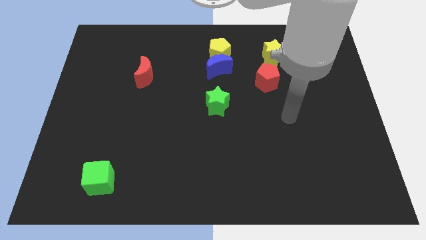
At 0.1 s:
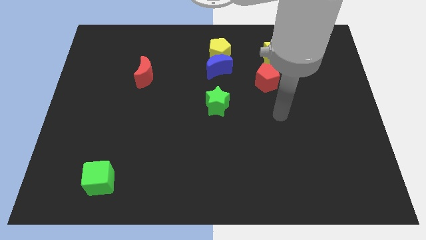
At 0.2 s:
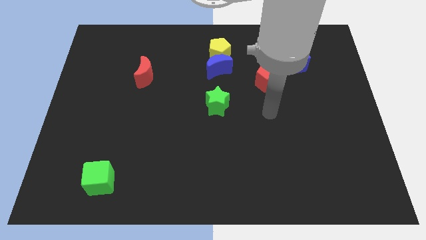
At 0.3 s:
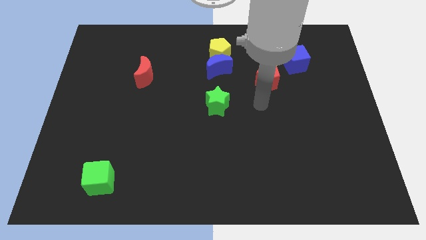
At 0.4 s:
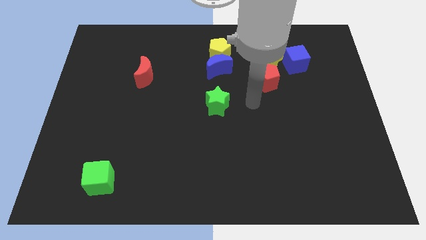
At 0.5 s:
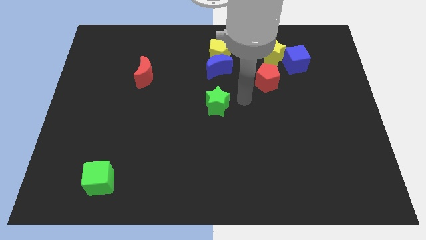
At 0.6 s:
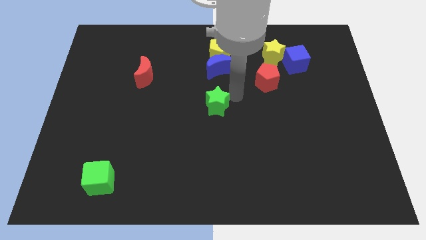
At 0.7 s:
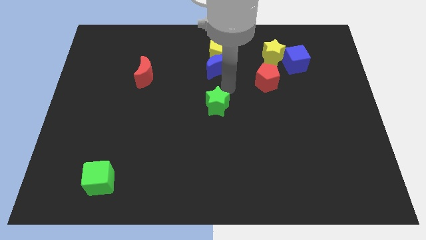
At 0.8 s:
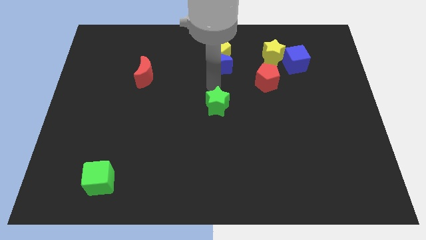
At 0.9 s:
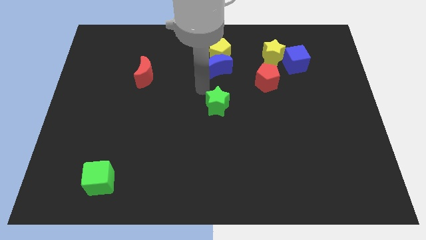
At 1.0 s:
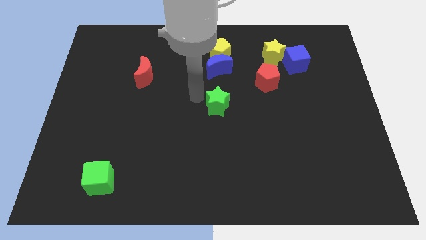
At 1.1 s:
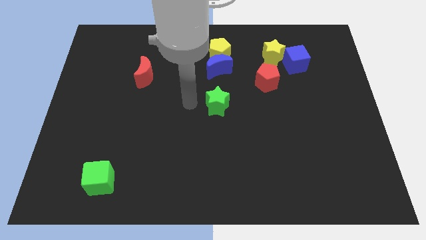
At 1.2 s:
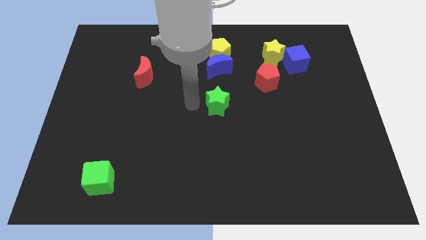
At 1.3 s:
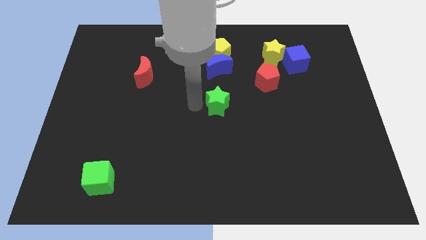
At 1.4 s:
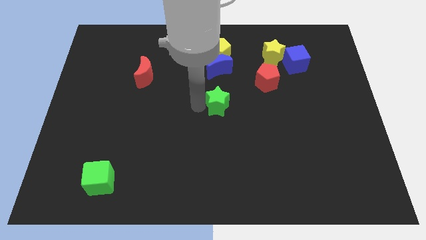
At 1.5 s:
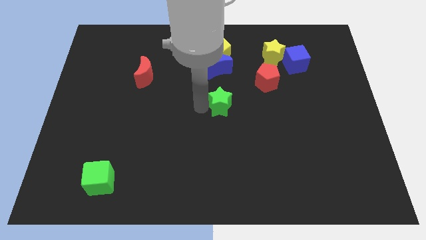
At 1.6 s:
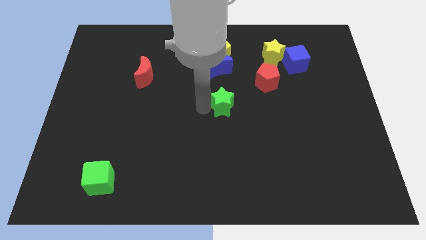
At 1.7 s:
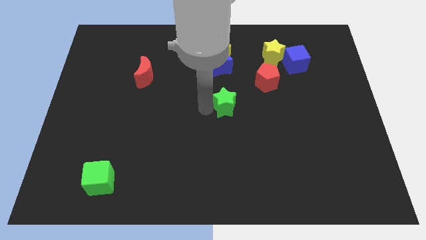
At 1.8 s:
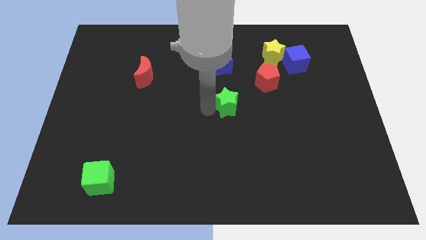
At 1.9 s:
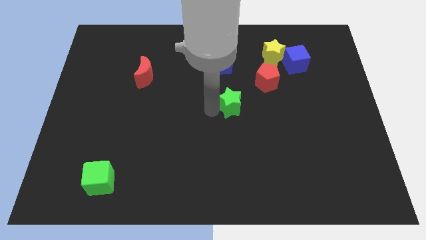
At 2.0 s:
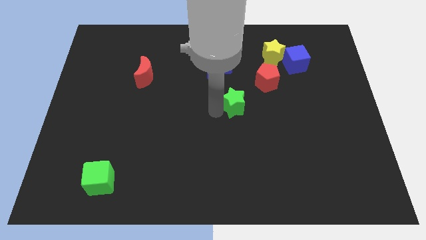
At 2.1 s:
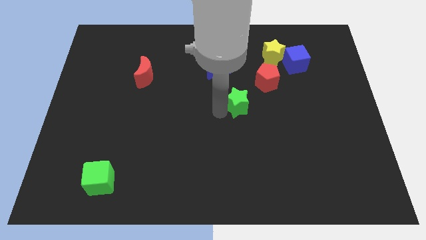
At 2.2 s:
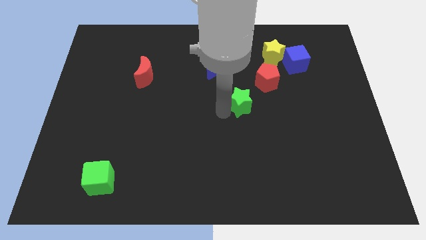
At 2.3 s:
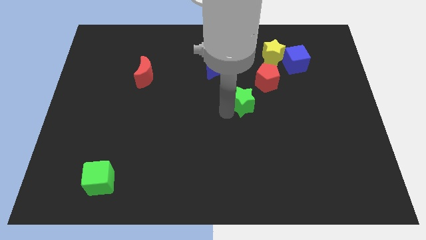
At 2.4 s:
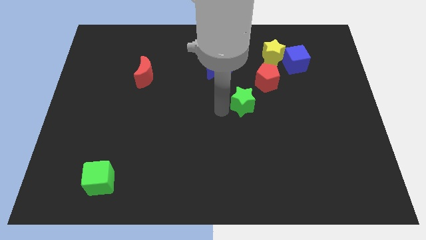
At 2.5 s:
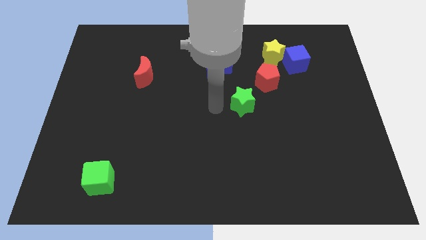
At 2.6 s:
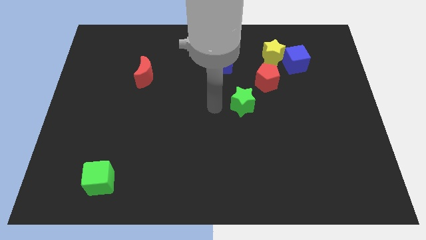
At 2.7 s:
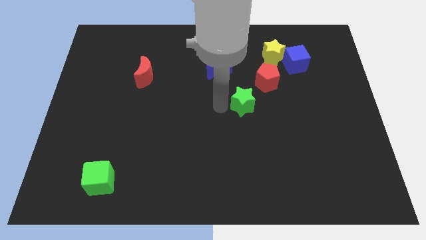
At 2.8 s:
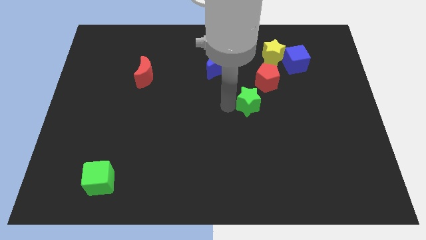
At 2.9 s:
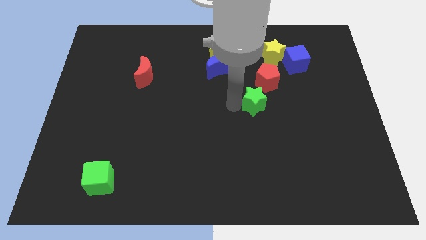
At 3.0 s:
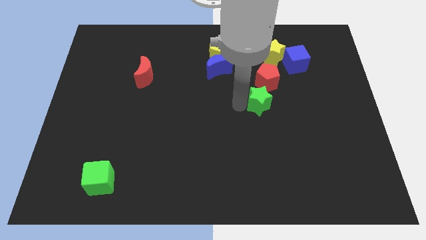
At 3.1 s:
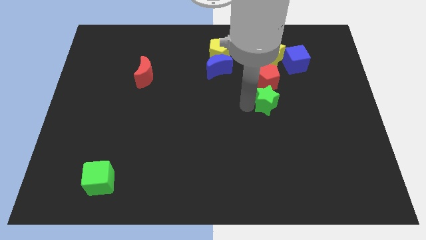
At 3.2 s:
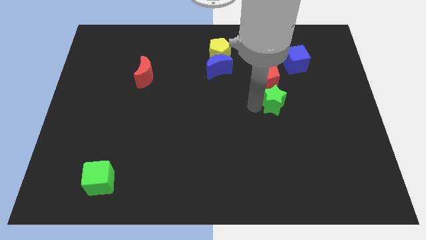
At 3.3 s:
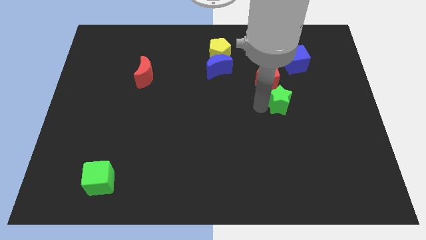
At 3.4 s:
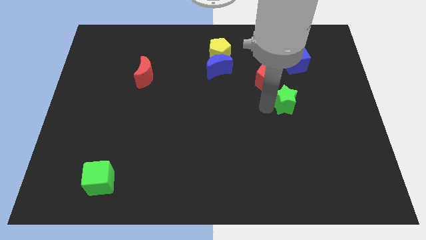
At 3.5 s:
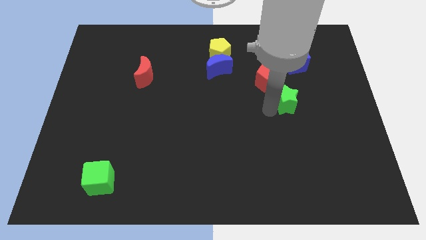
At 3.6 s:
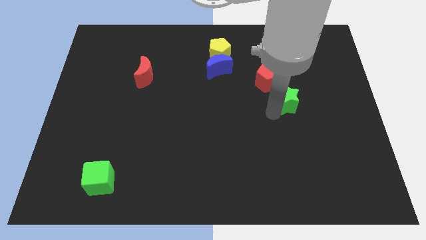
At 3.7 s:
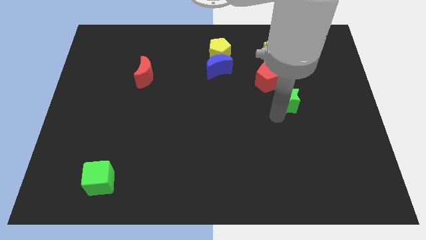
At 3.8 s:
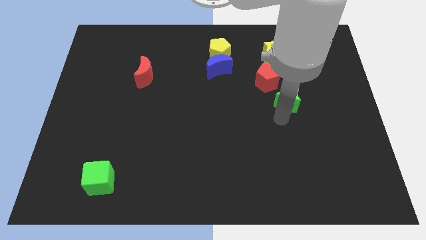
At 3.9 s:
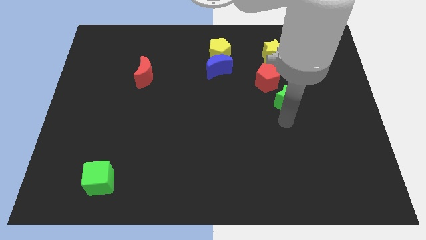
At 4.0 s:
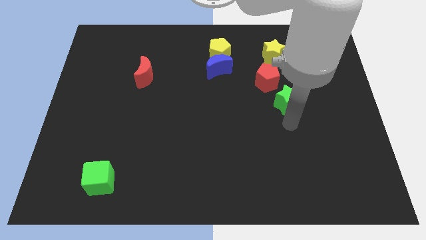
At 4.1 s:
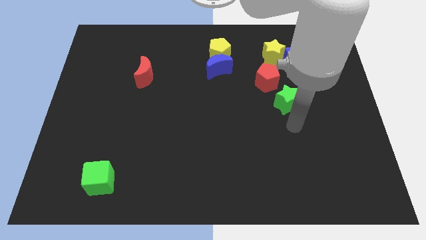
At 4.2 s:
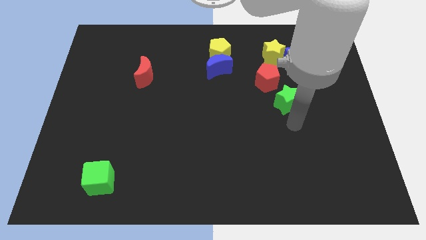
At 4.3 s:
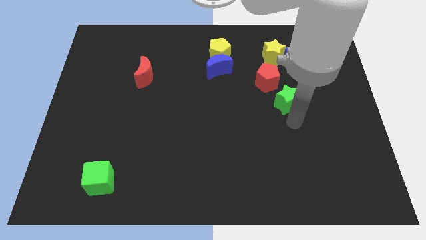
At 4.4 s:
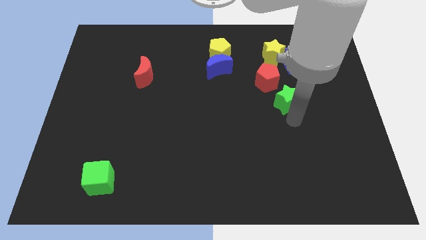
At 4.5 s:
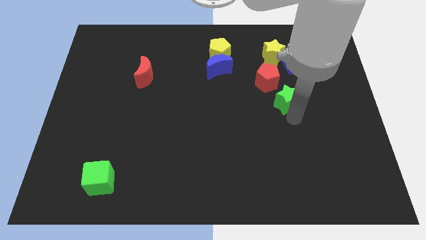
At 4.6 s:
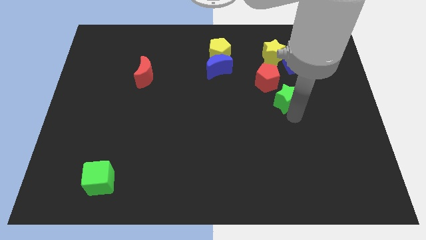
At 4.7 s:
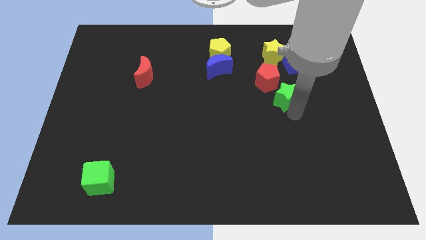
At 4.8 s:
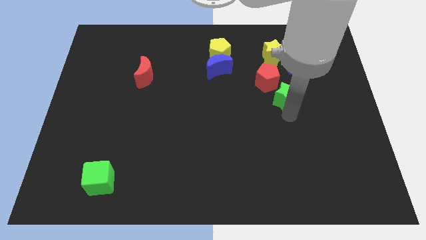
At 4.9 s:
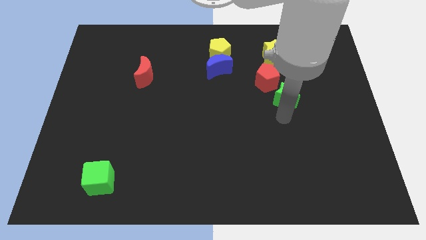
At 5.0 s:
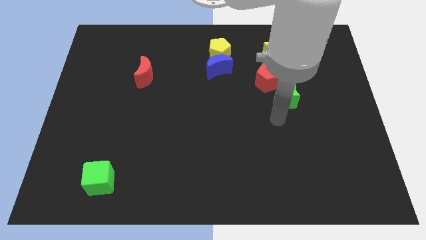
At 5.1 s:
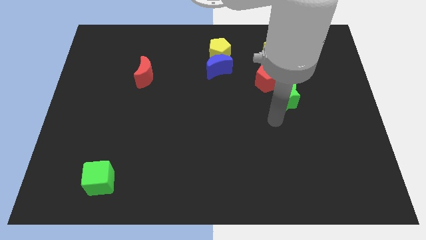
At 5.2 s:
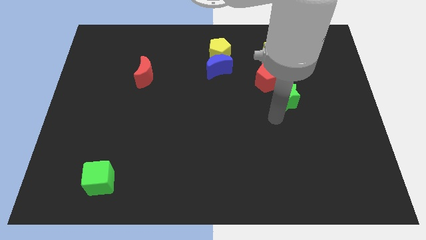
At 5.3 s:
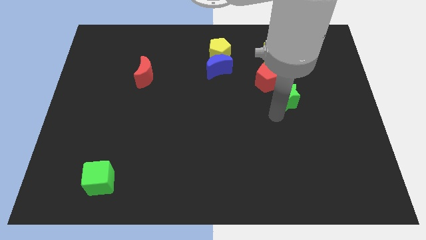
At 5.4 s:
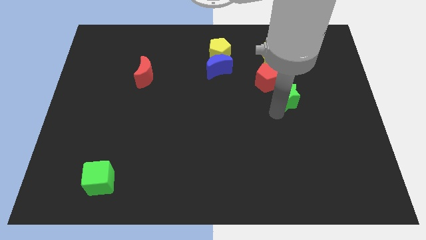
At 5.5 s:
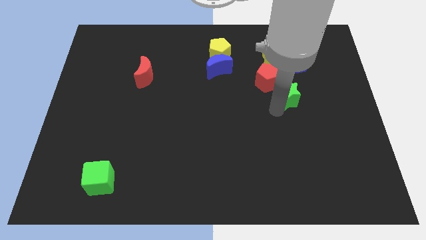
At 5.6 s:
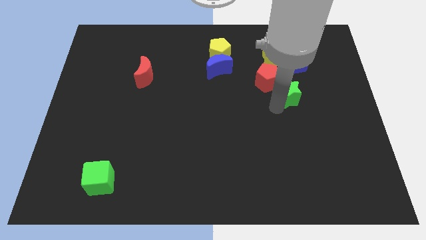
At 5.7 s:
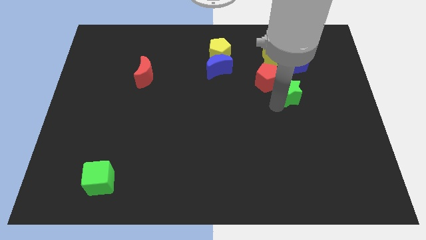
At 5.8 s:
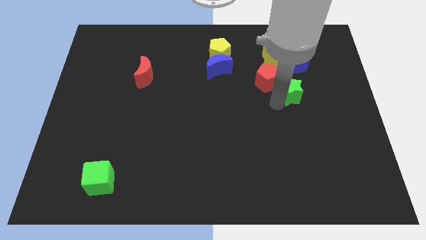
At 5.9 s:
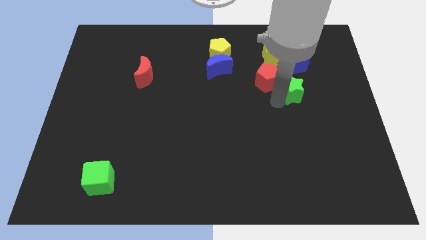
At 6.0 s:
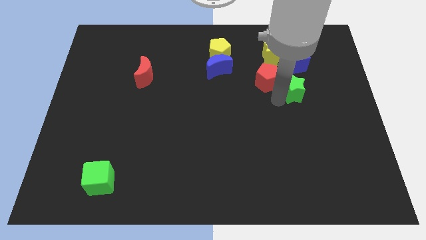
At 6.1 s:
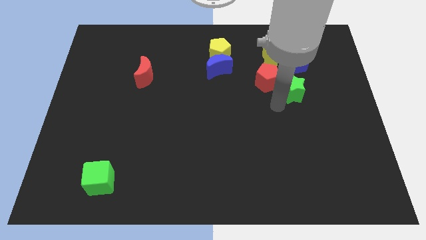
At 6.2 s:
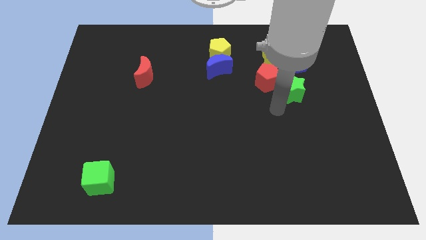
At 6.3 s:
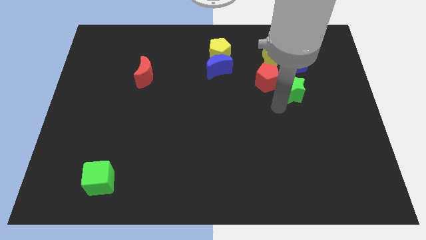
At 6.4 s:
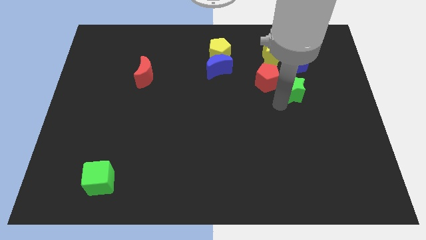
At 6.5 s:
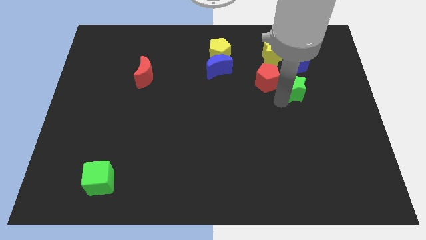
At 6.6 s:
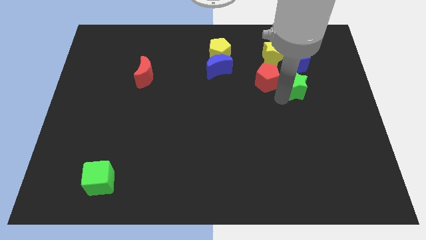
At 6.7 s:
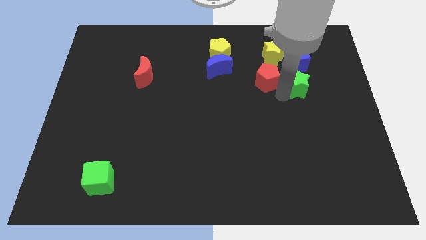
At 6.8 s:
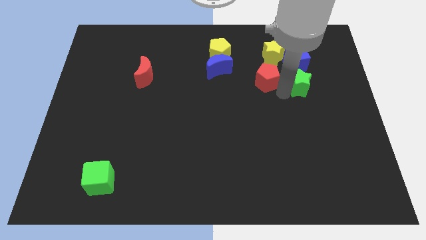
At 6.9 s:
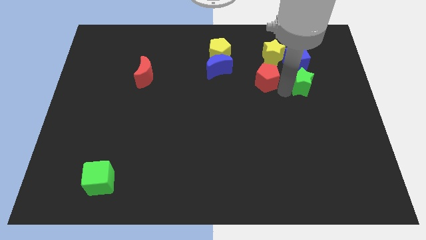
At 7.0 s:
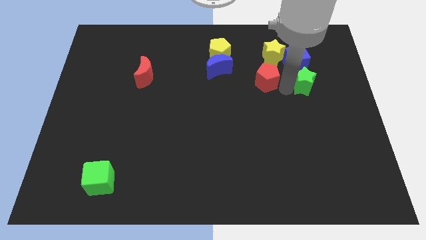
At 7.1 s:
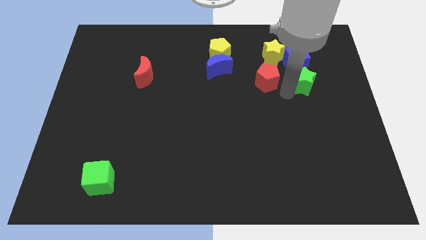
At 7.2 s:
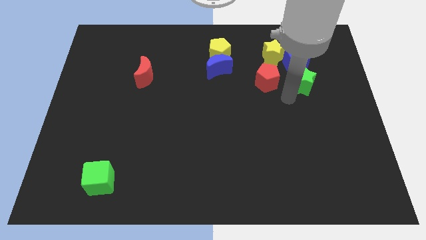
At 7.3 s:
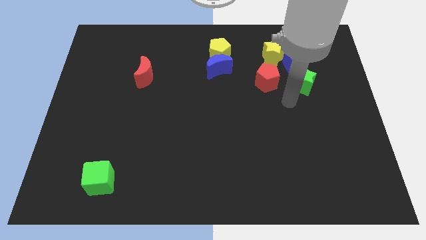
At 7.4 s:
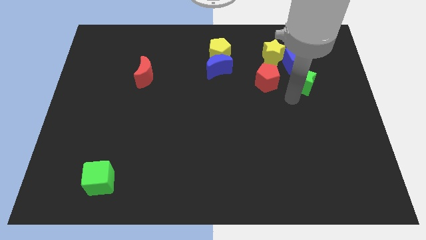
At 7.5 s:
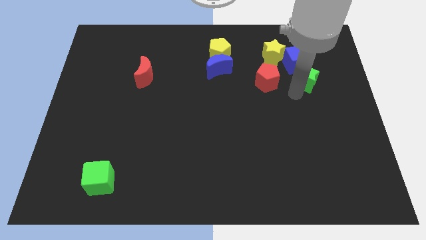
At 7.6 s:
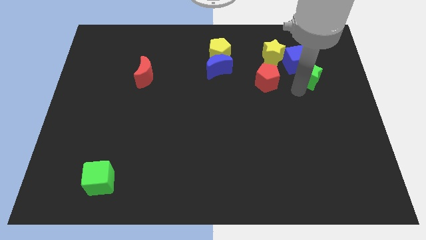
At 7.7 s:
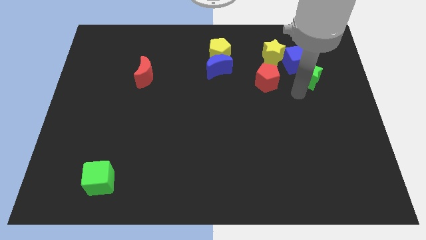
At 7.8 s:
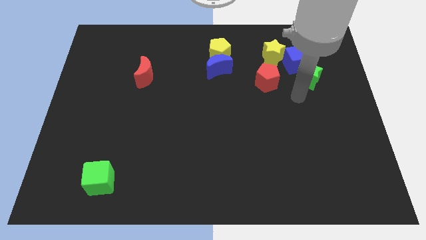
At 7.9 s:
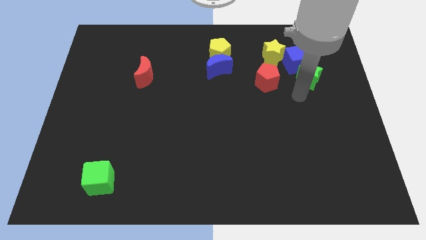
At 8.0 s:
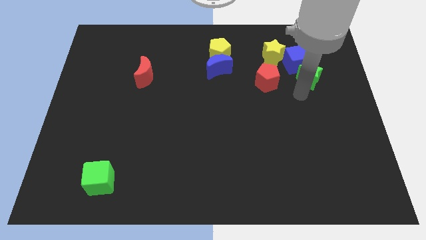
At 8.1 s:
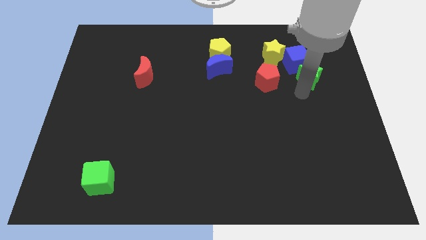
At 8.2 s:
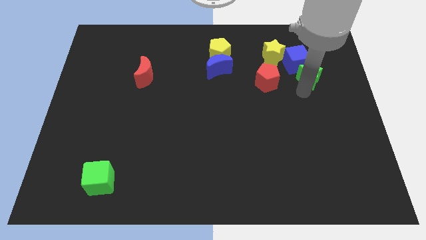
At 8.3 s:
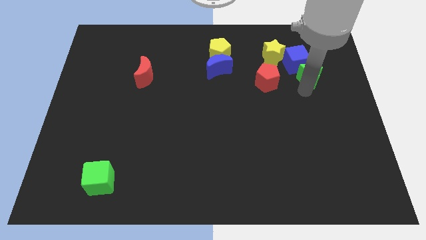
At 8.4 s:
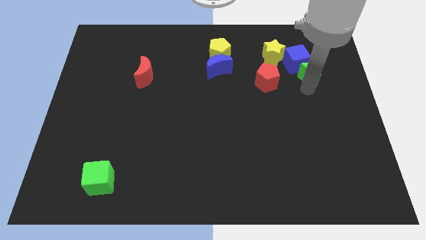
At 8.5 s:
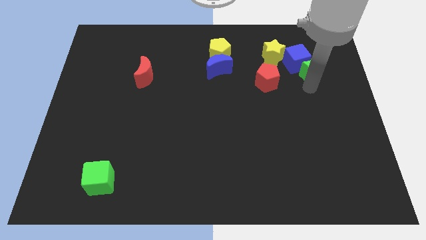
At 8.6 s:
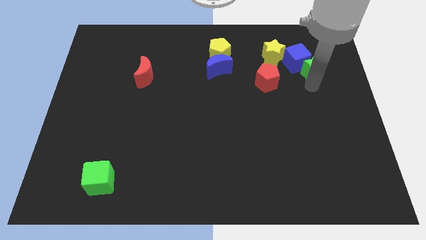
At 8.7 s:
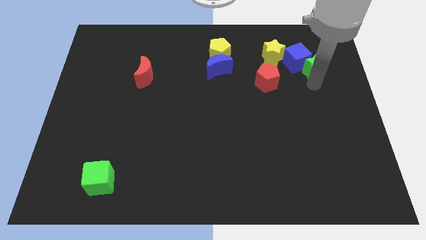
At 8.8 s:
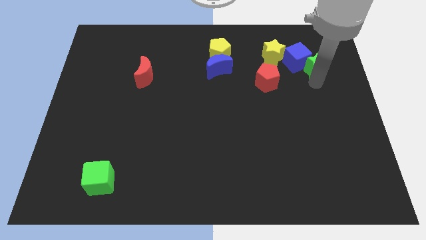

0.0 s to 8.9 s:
move the green star right of the yellow star
